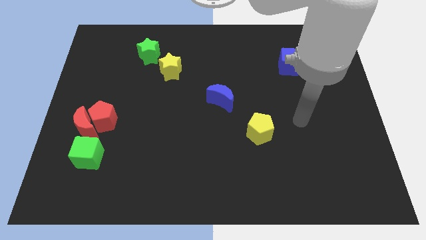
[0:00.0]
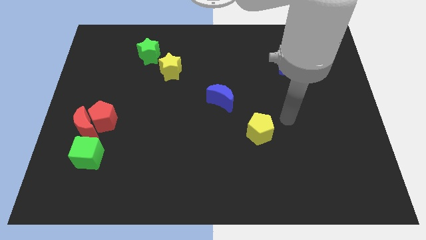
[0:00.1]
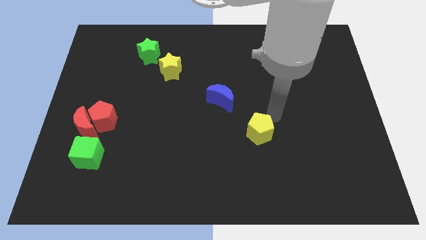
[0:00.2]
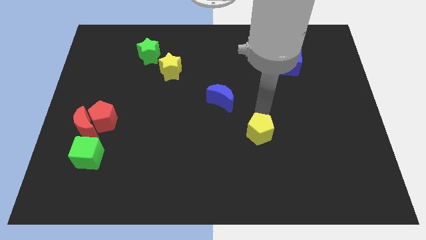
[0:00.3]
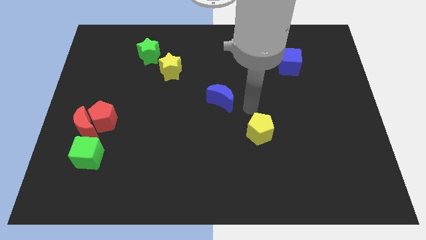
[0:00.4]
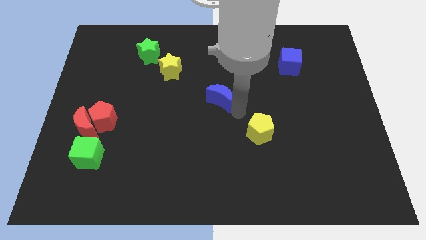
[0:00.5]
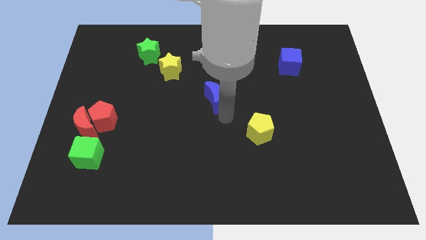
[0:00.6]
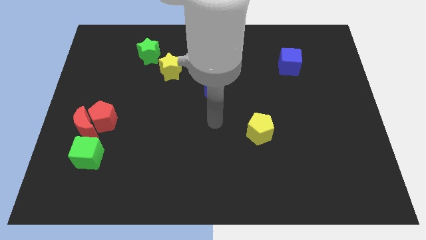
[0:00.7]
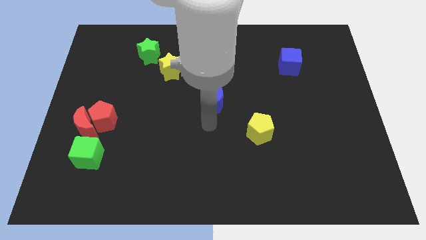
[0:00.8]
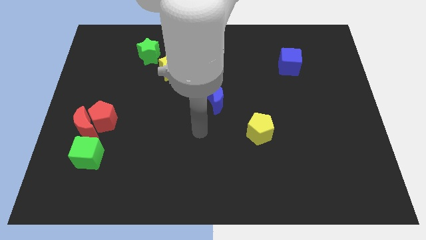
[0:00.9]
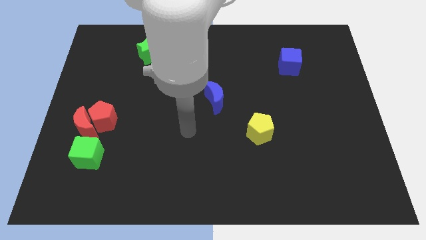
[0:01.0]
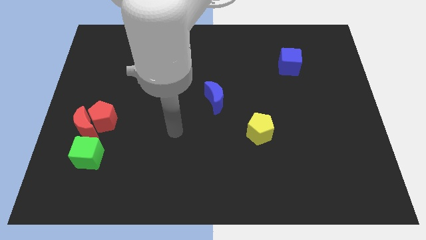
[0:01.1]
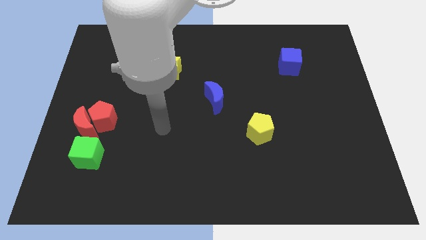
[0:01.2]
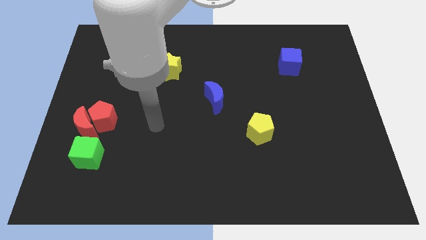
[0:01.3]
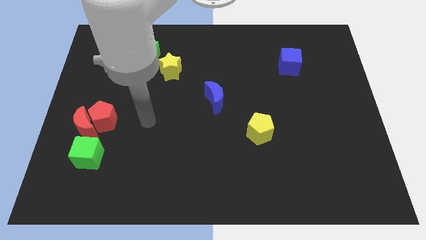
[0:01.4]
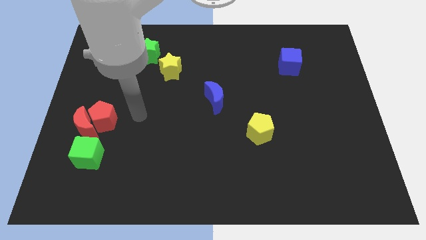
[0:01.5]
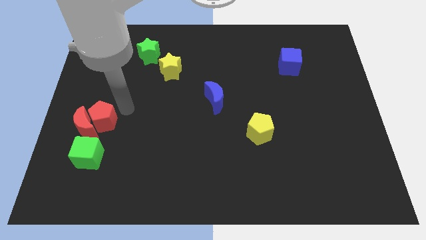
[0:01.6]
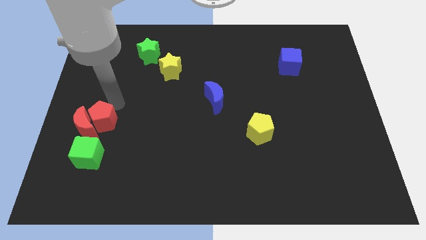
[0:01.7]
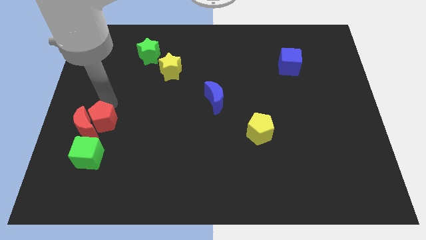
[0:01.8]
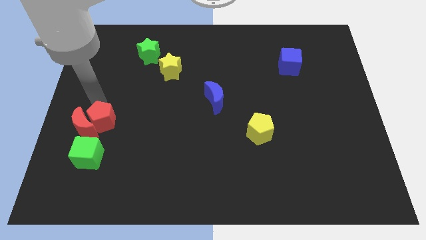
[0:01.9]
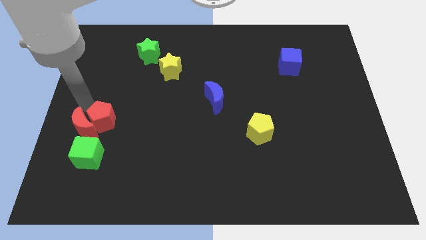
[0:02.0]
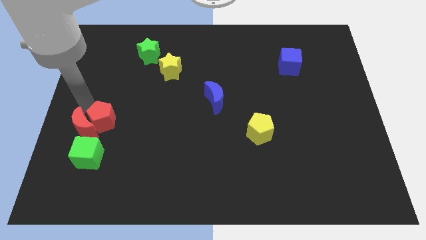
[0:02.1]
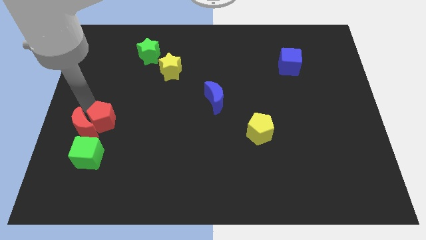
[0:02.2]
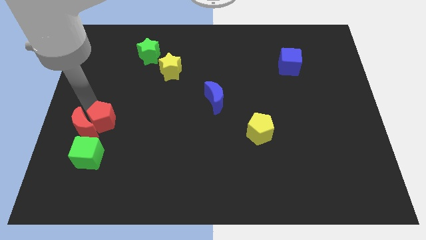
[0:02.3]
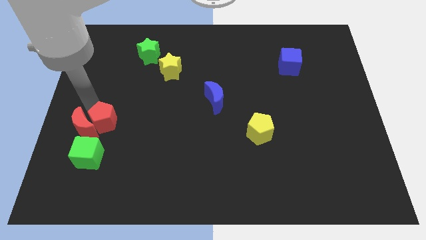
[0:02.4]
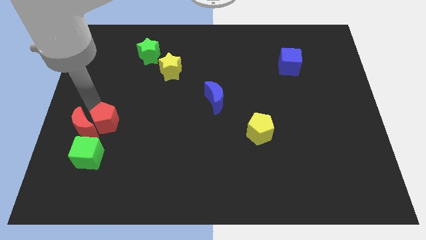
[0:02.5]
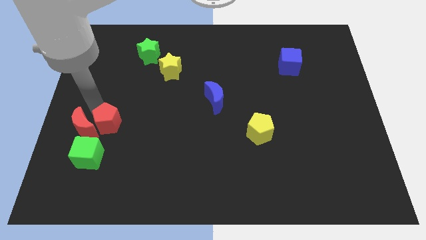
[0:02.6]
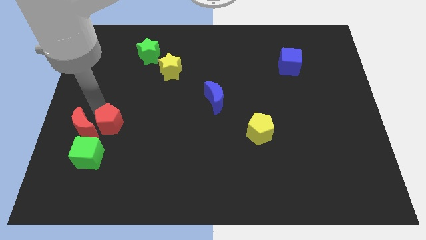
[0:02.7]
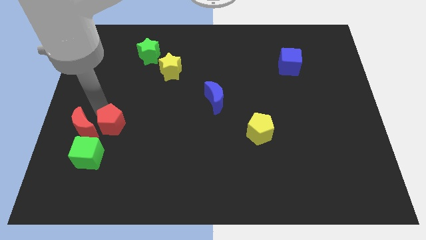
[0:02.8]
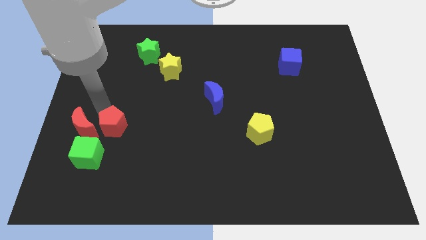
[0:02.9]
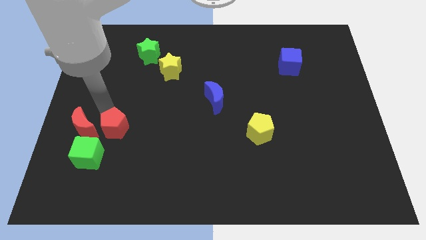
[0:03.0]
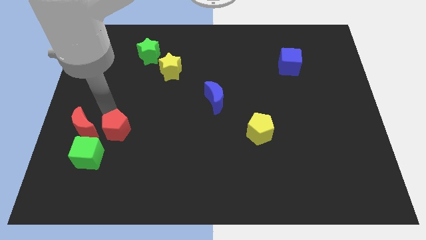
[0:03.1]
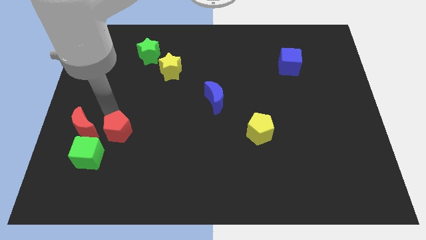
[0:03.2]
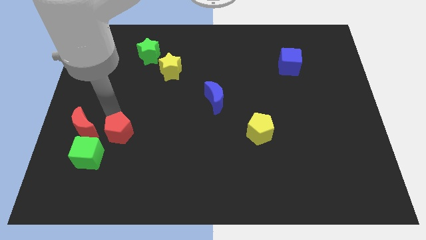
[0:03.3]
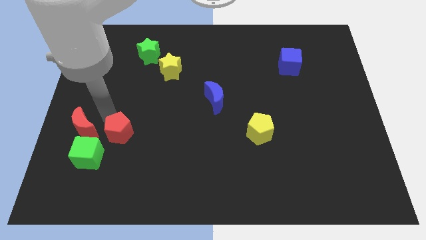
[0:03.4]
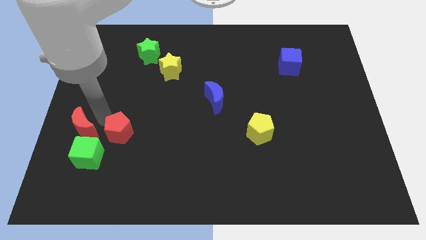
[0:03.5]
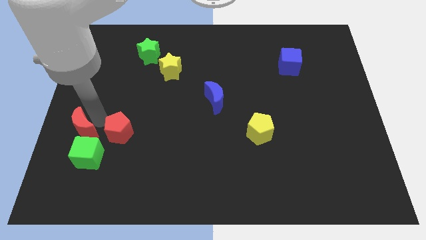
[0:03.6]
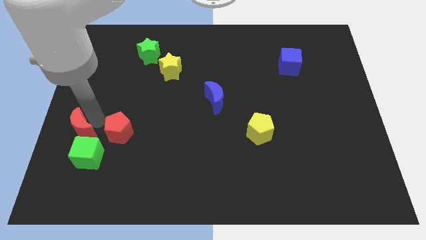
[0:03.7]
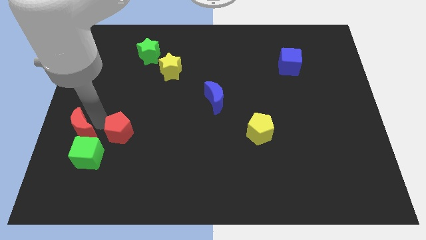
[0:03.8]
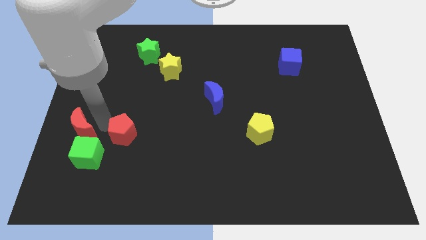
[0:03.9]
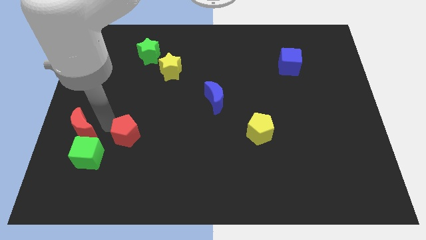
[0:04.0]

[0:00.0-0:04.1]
slide the red pentagon somewhat diagonally downwards and to the right

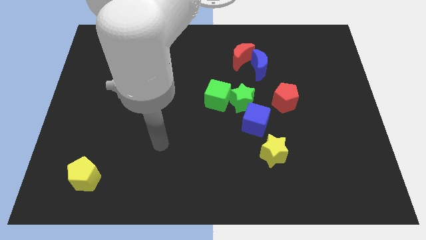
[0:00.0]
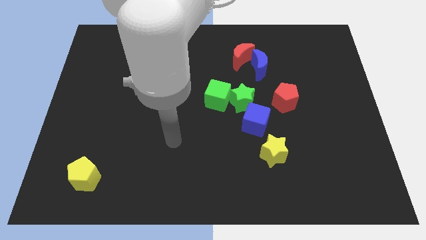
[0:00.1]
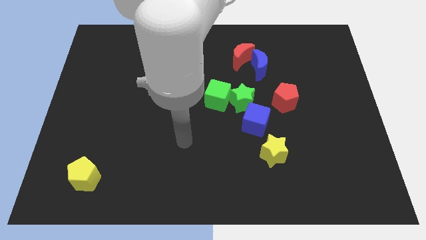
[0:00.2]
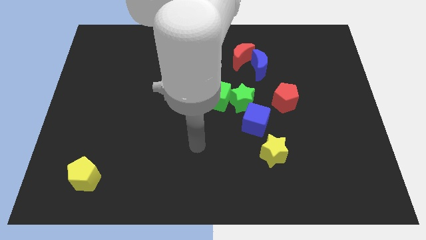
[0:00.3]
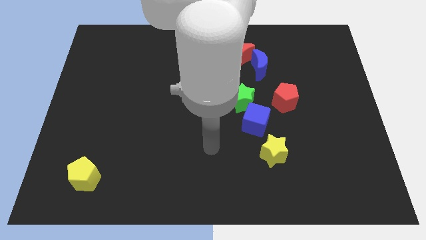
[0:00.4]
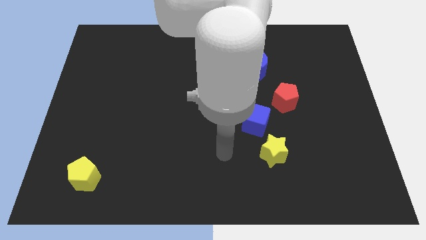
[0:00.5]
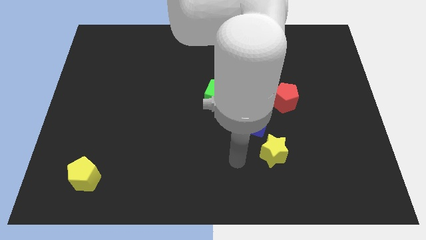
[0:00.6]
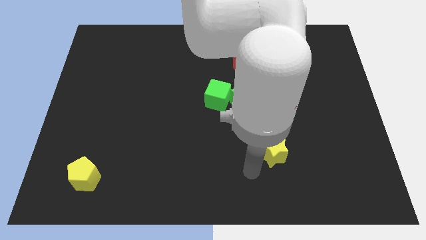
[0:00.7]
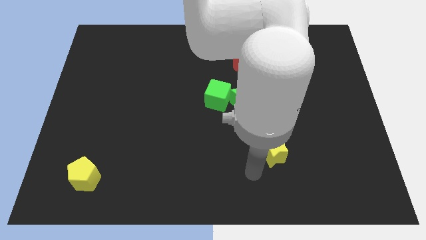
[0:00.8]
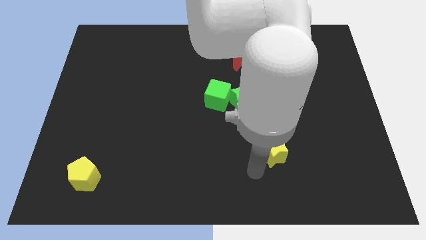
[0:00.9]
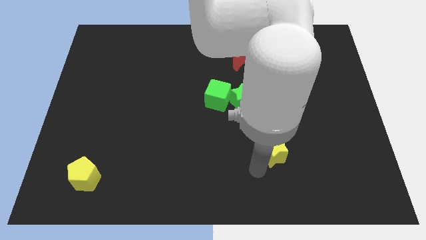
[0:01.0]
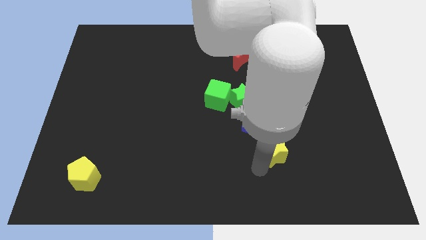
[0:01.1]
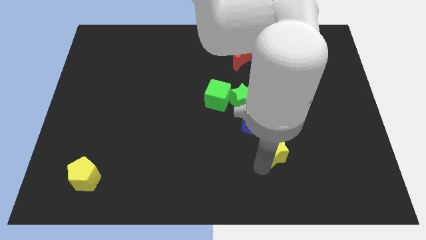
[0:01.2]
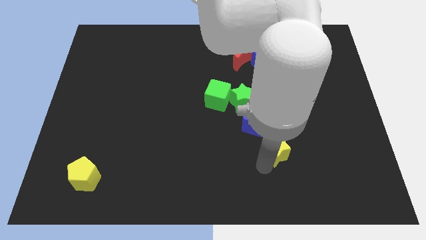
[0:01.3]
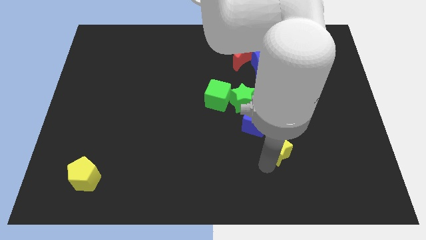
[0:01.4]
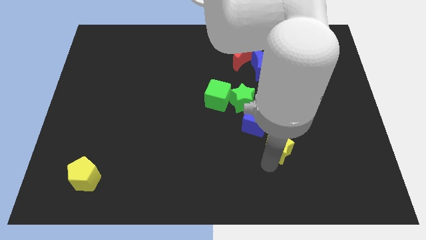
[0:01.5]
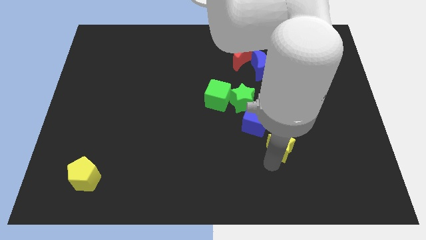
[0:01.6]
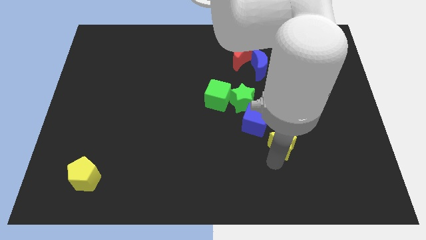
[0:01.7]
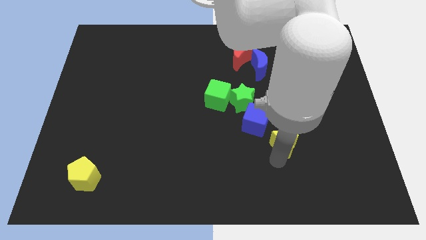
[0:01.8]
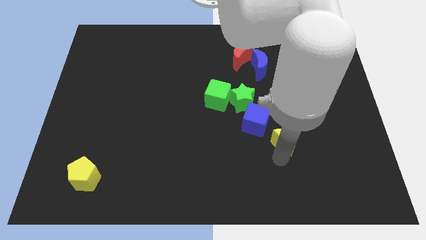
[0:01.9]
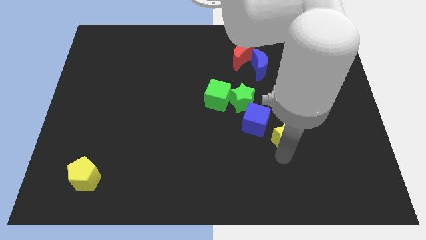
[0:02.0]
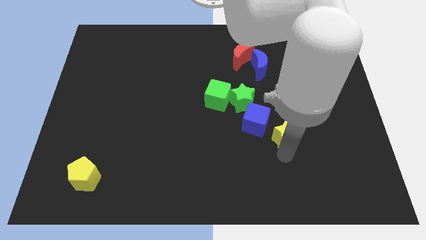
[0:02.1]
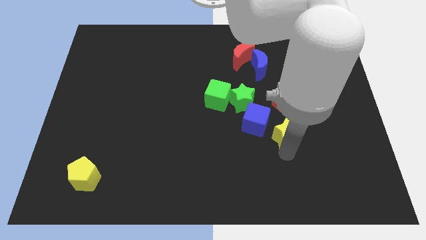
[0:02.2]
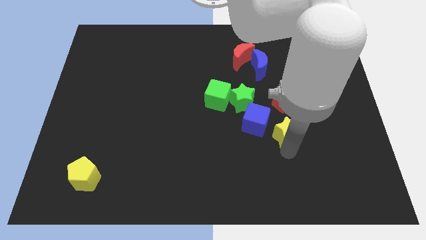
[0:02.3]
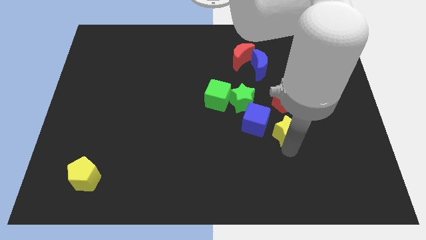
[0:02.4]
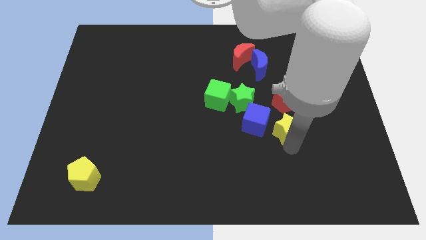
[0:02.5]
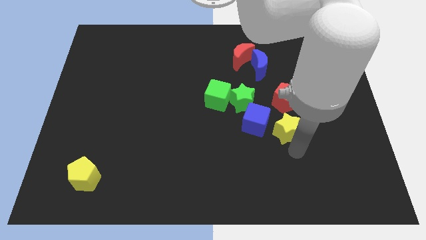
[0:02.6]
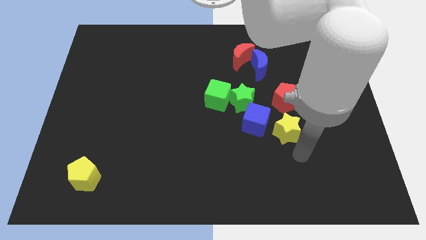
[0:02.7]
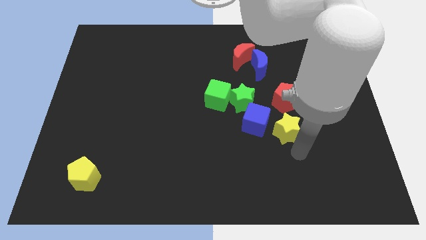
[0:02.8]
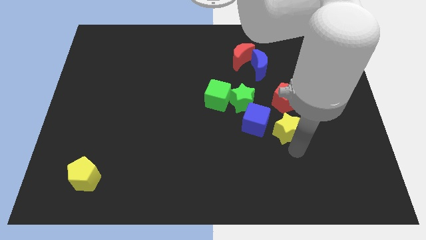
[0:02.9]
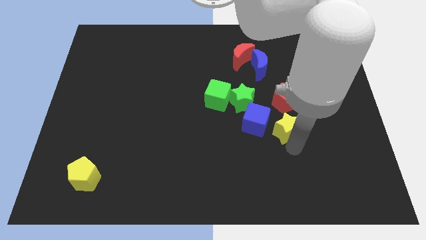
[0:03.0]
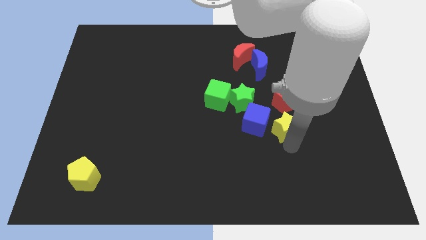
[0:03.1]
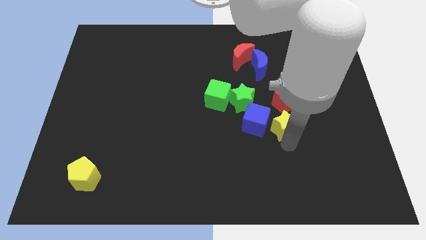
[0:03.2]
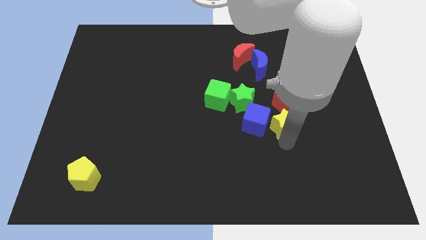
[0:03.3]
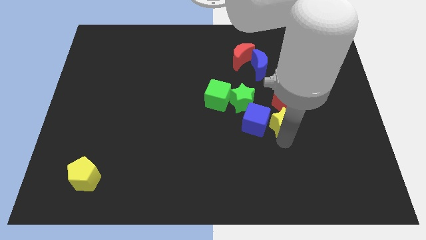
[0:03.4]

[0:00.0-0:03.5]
slightly move the yellow star upwards

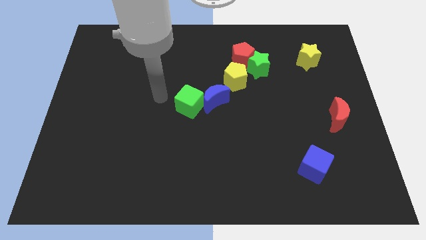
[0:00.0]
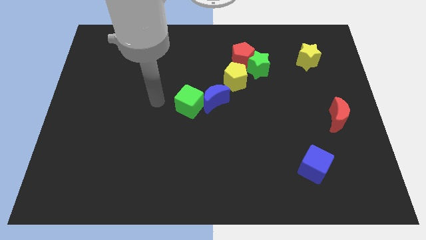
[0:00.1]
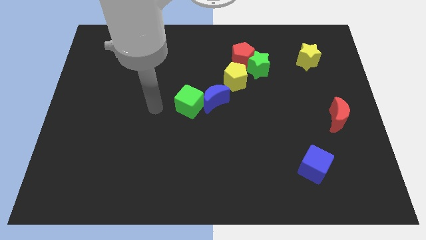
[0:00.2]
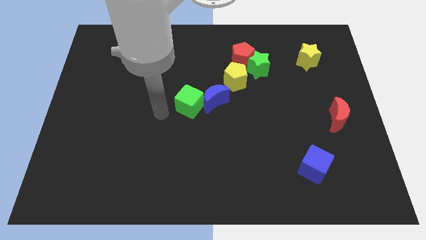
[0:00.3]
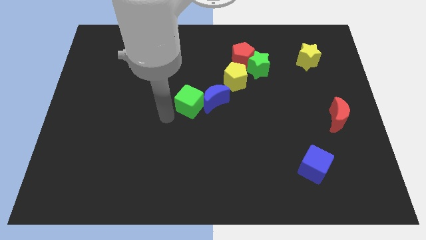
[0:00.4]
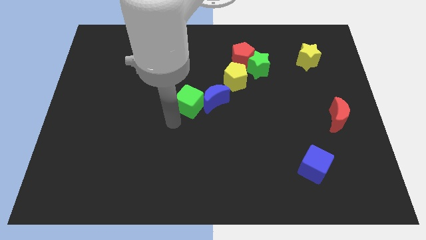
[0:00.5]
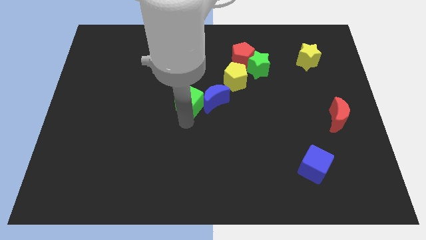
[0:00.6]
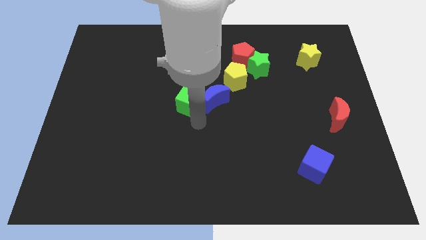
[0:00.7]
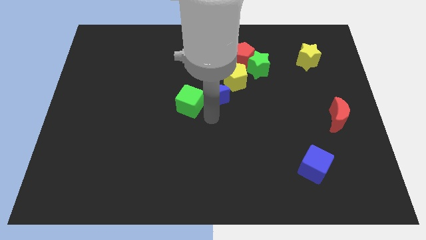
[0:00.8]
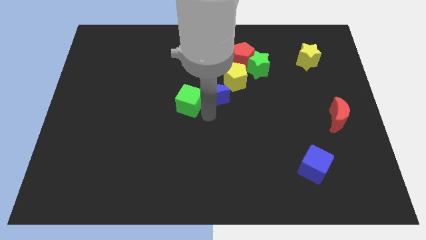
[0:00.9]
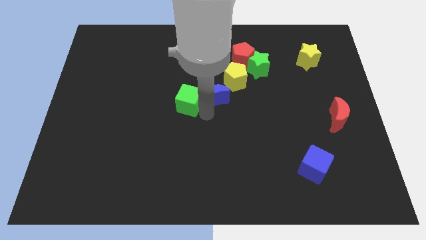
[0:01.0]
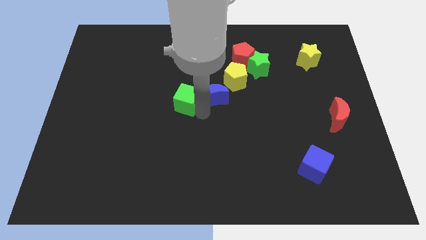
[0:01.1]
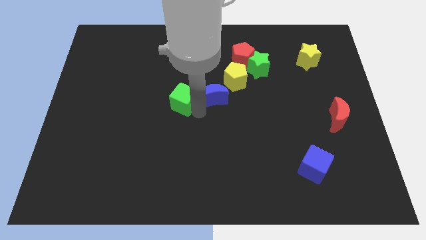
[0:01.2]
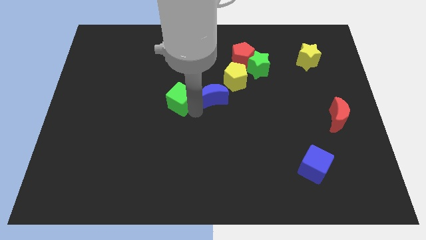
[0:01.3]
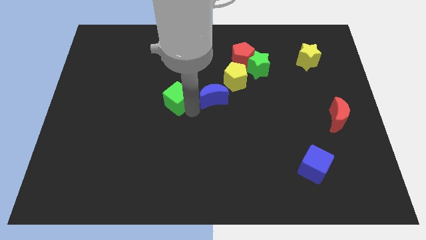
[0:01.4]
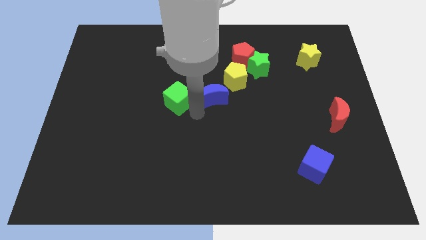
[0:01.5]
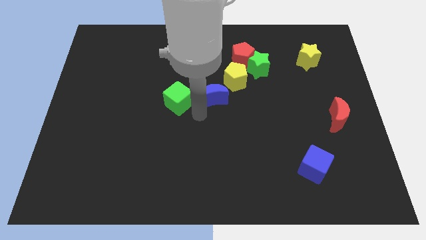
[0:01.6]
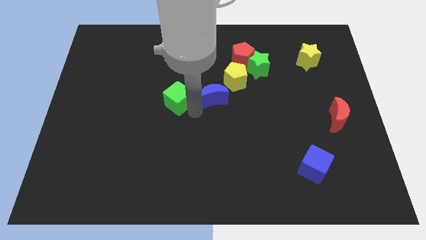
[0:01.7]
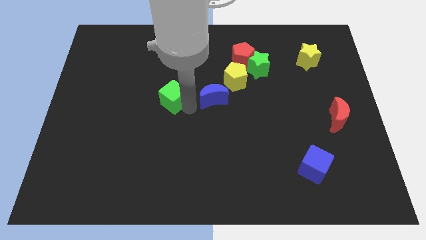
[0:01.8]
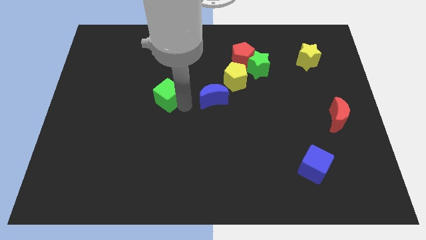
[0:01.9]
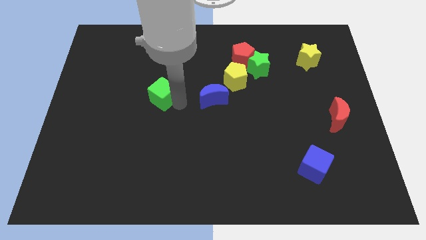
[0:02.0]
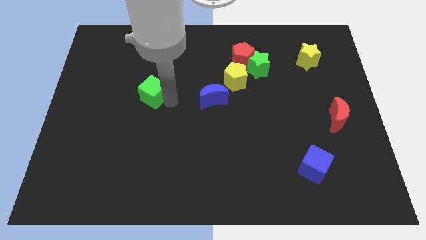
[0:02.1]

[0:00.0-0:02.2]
move the green cube a bit diagonally up and left
